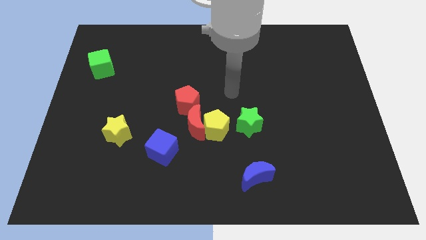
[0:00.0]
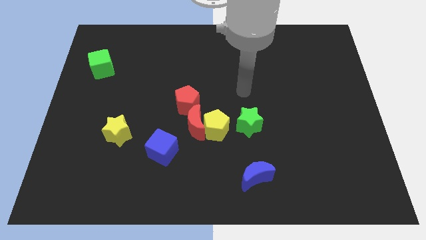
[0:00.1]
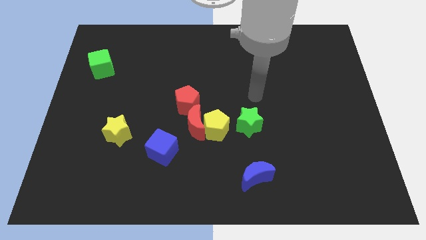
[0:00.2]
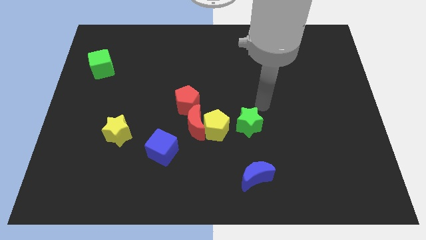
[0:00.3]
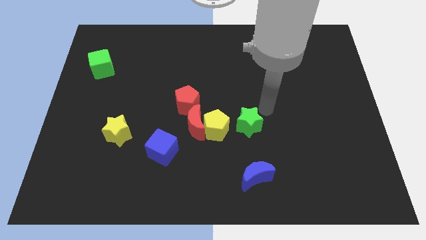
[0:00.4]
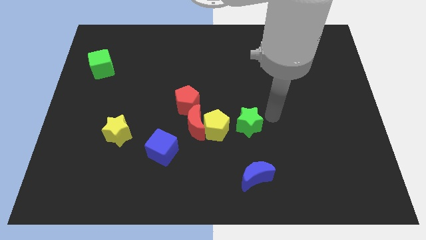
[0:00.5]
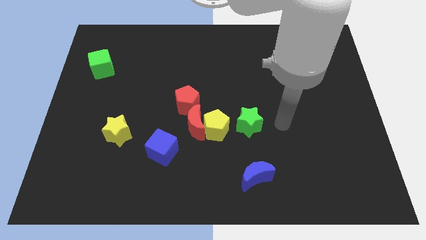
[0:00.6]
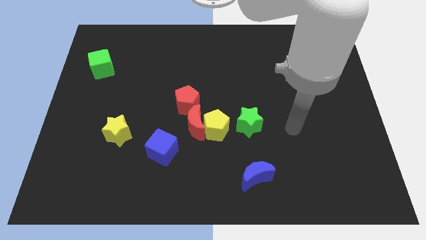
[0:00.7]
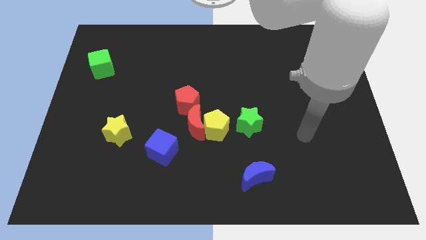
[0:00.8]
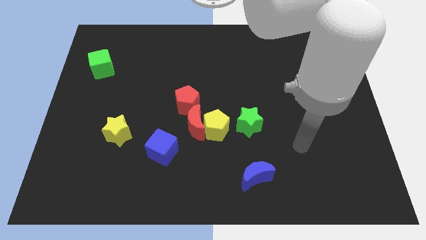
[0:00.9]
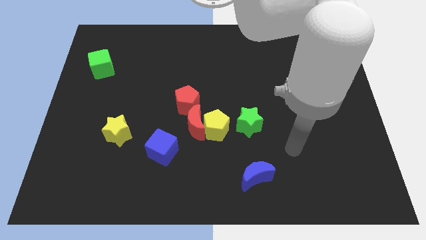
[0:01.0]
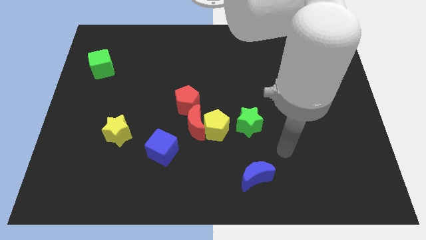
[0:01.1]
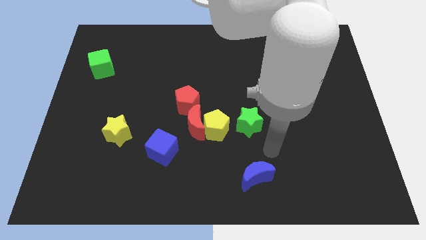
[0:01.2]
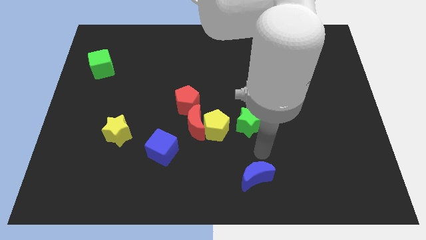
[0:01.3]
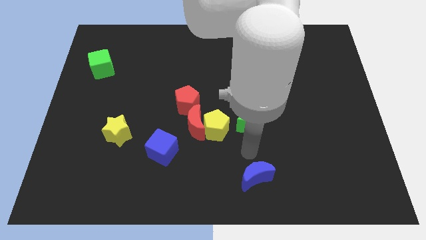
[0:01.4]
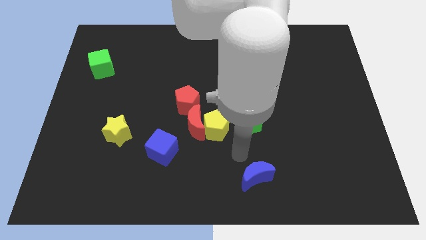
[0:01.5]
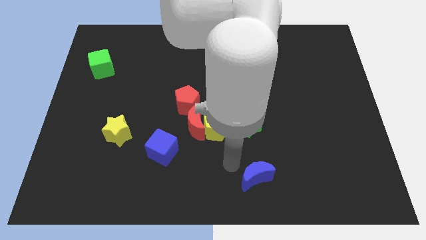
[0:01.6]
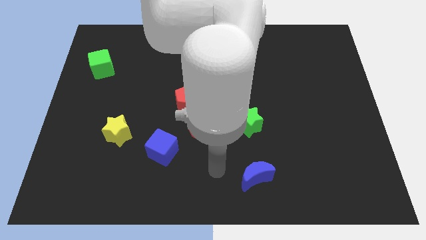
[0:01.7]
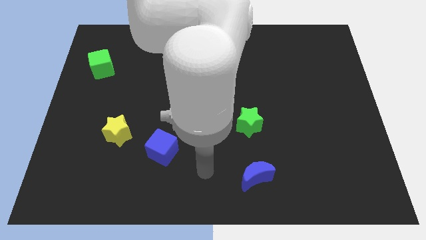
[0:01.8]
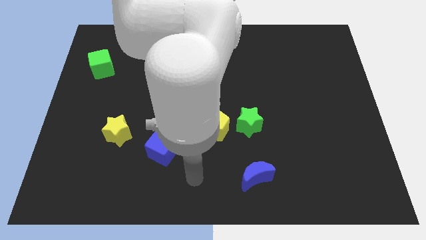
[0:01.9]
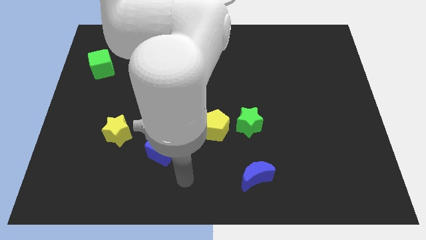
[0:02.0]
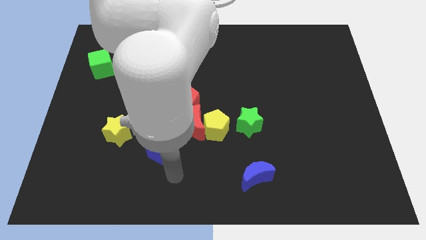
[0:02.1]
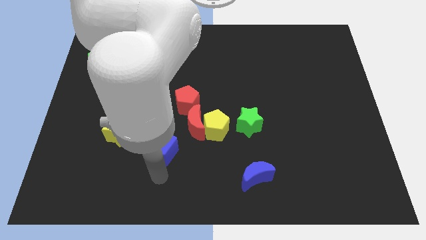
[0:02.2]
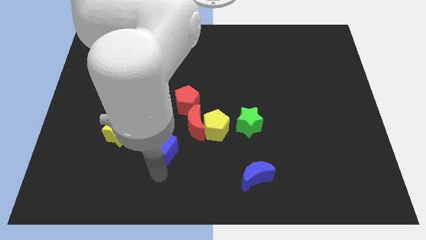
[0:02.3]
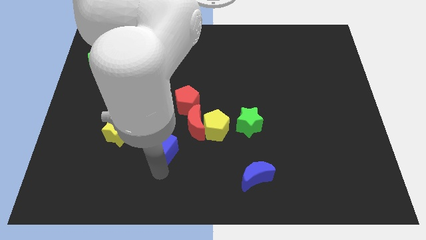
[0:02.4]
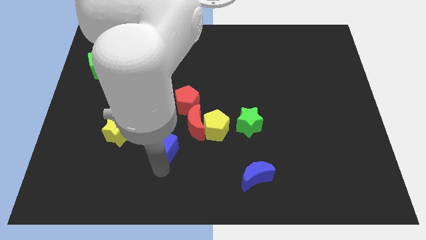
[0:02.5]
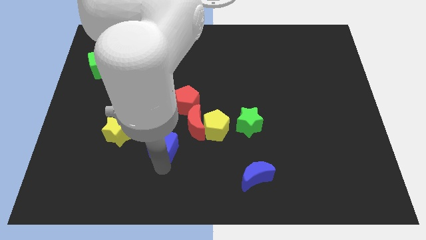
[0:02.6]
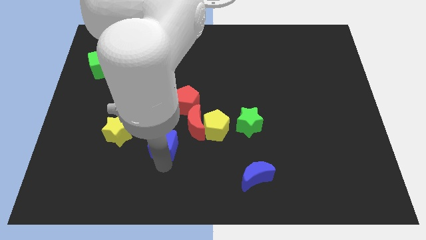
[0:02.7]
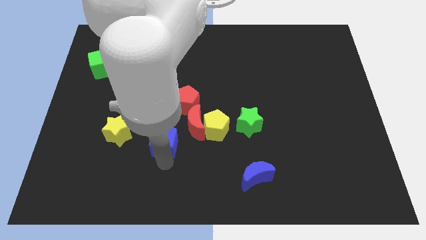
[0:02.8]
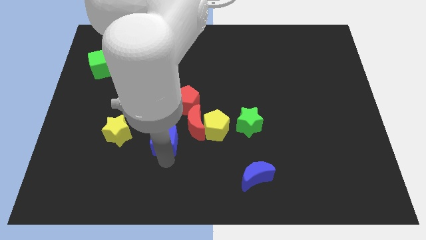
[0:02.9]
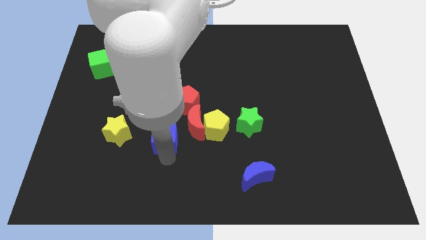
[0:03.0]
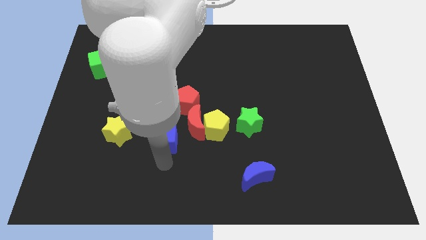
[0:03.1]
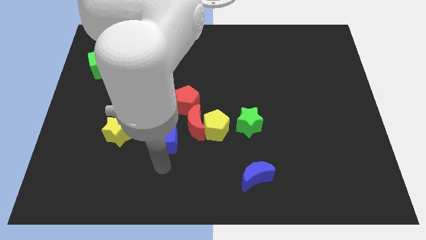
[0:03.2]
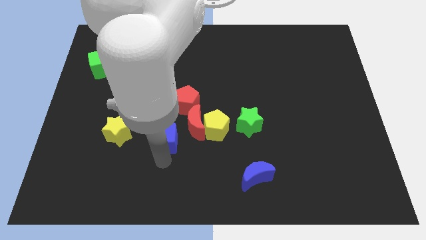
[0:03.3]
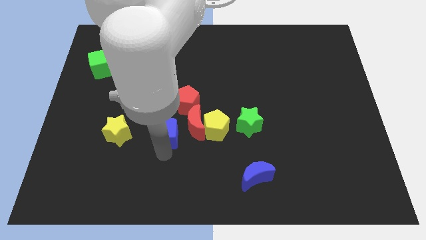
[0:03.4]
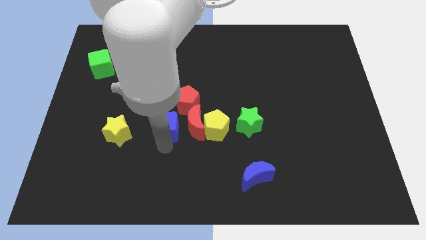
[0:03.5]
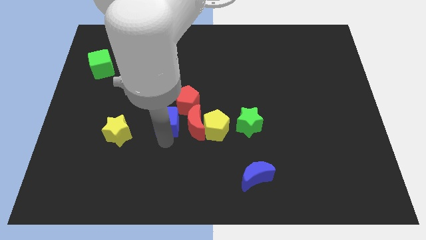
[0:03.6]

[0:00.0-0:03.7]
move the blue cube a little bit upwards

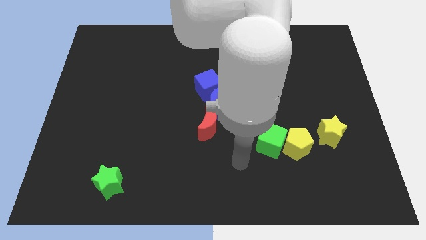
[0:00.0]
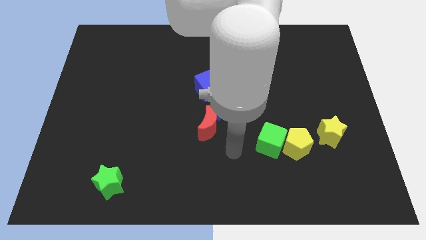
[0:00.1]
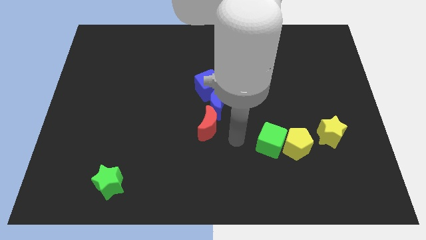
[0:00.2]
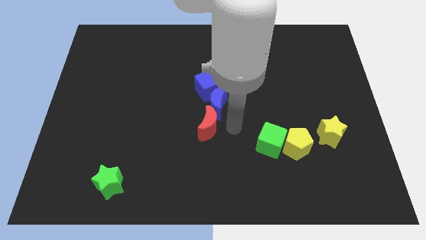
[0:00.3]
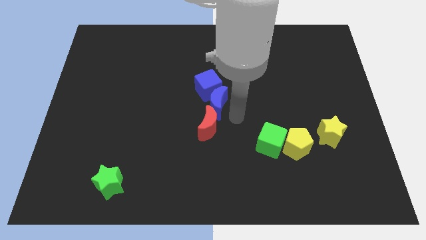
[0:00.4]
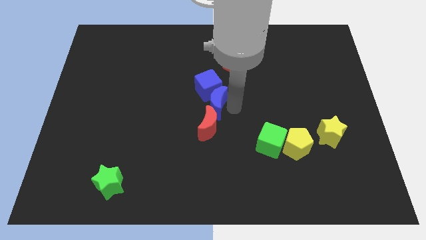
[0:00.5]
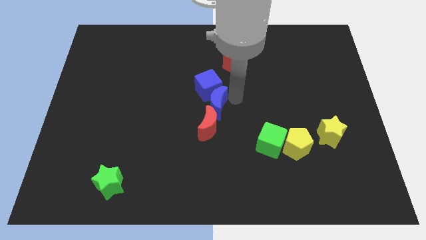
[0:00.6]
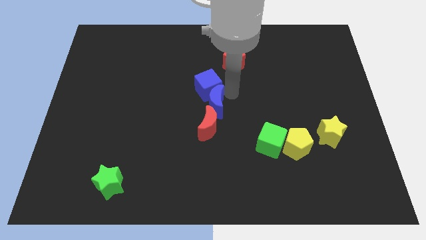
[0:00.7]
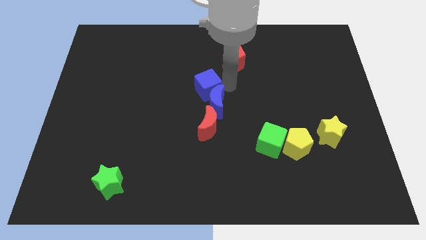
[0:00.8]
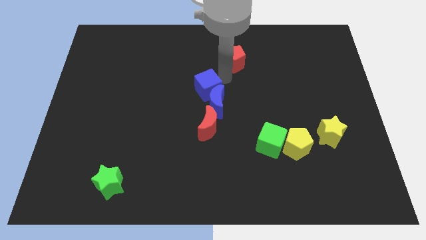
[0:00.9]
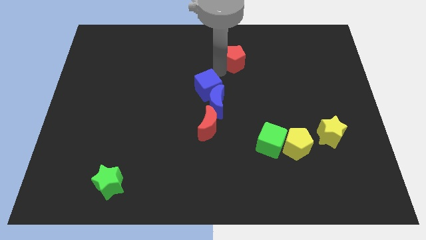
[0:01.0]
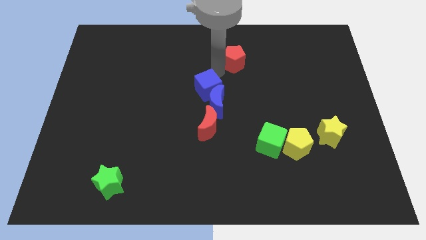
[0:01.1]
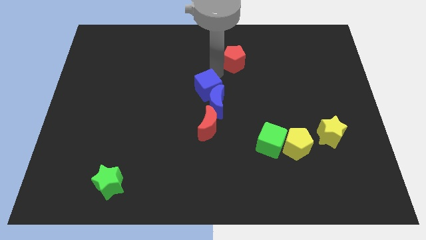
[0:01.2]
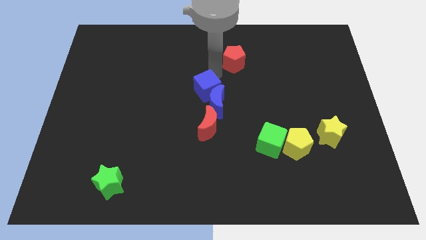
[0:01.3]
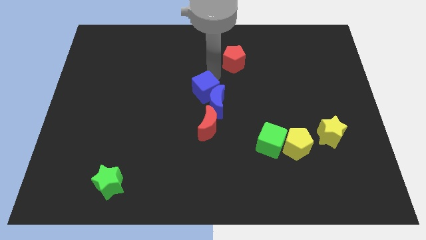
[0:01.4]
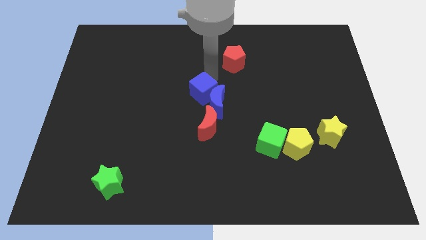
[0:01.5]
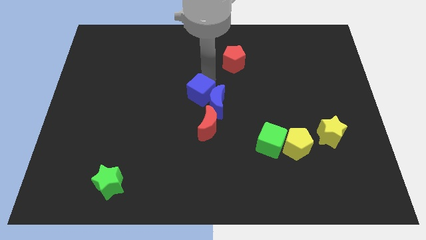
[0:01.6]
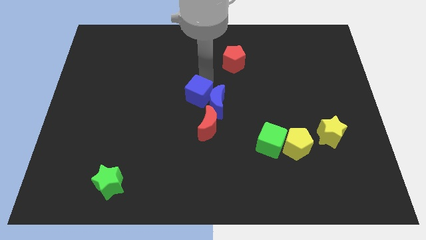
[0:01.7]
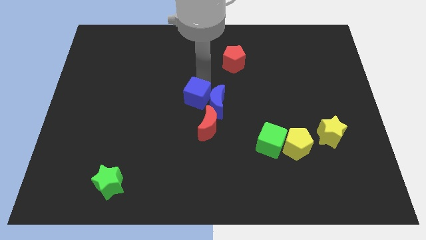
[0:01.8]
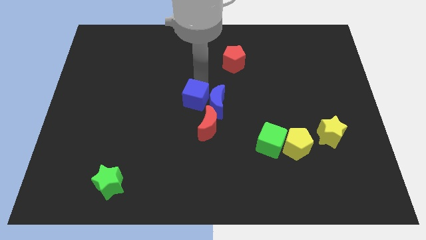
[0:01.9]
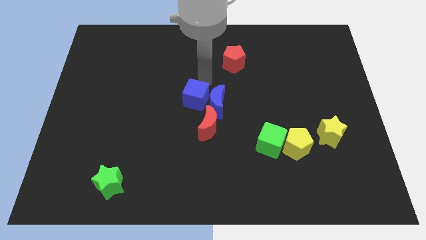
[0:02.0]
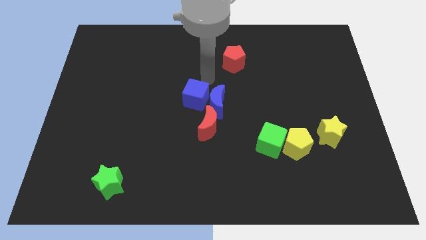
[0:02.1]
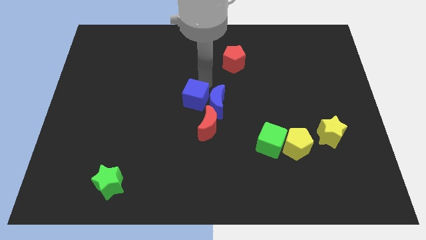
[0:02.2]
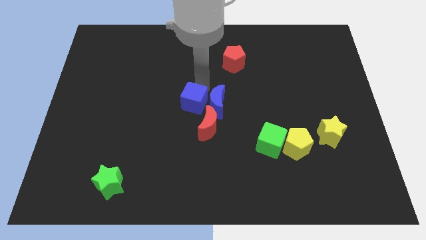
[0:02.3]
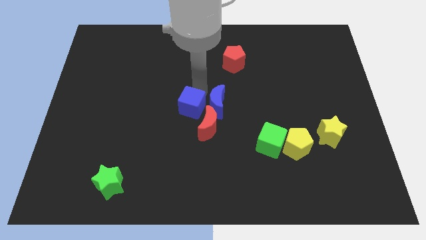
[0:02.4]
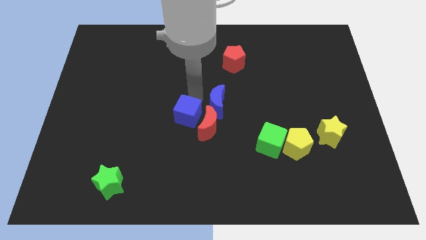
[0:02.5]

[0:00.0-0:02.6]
move the blue cube slightly downwards

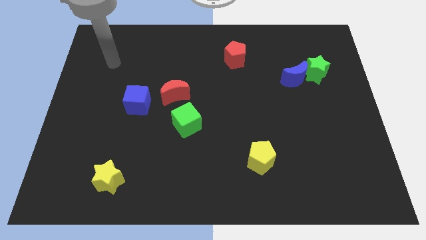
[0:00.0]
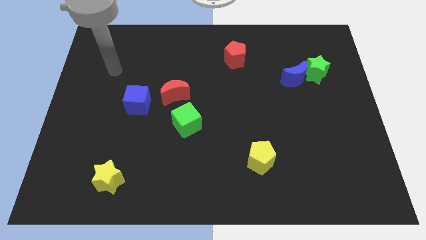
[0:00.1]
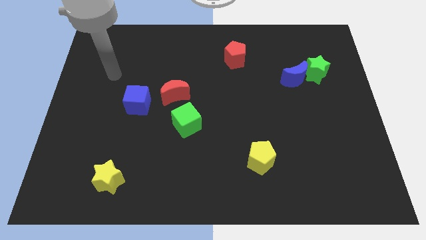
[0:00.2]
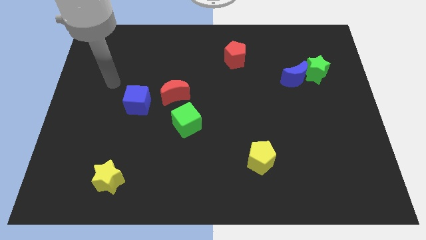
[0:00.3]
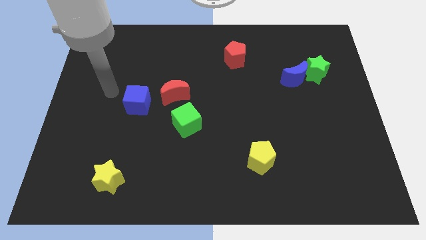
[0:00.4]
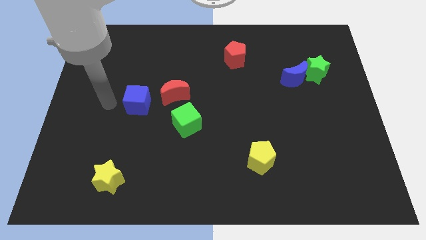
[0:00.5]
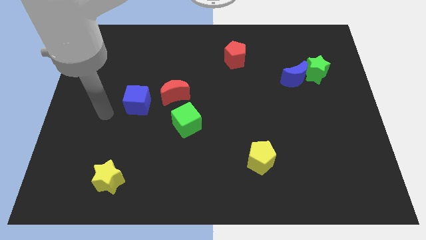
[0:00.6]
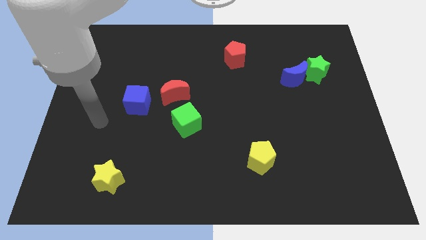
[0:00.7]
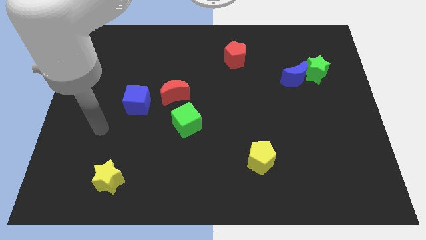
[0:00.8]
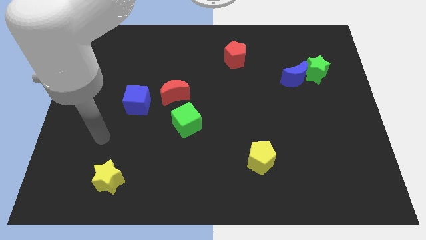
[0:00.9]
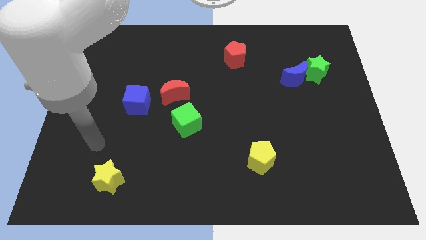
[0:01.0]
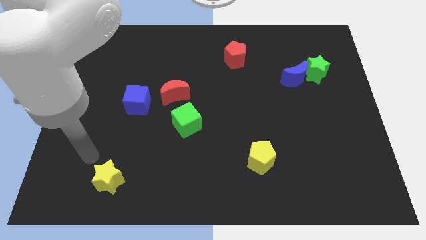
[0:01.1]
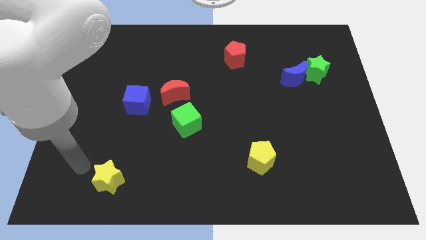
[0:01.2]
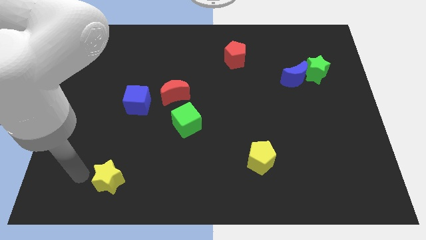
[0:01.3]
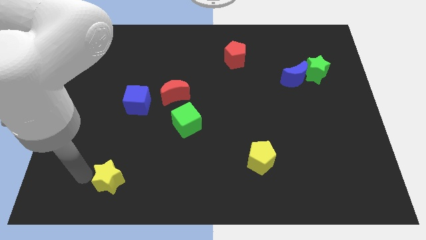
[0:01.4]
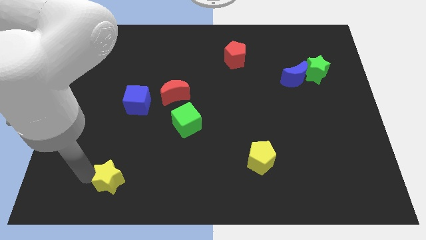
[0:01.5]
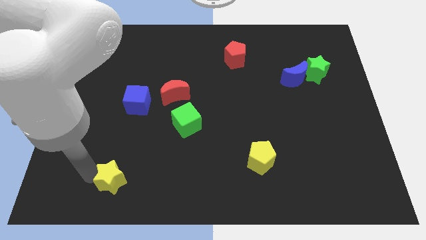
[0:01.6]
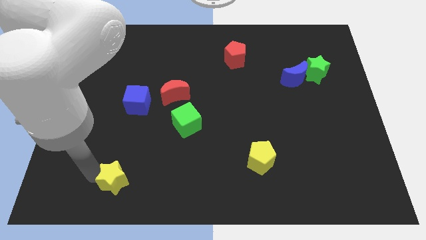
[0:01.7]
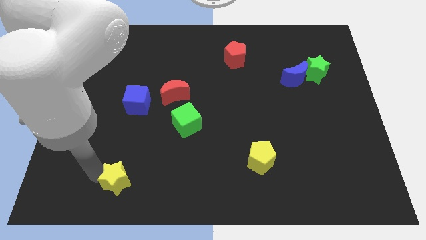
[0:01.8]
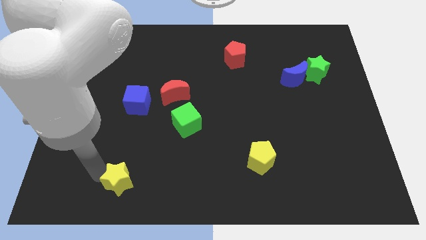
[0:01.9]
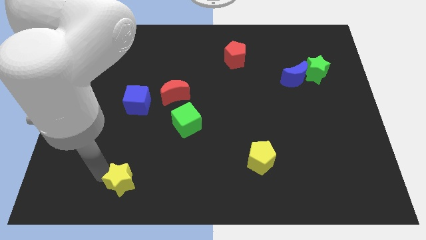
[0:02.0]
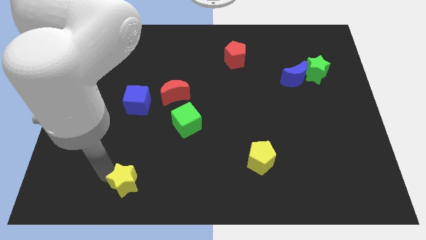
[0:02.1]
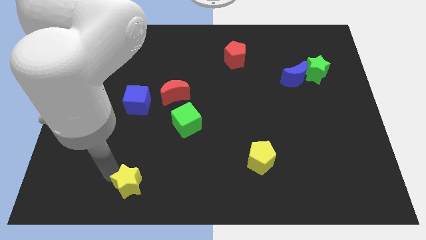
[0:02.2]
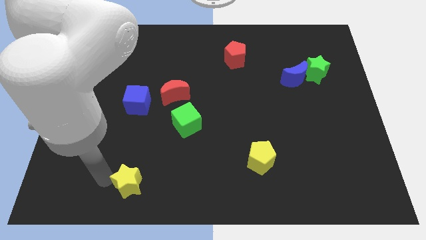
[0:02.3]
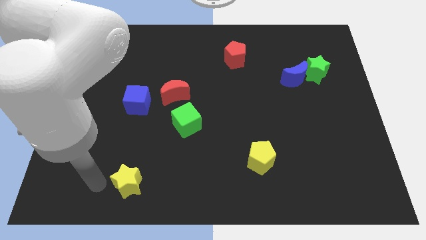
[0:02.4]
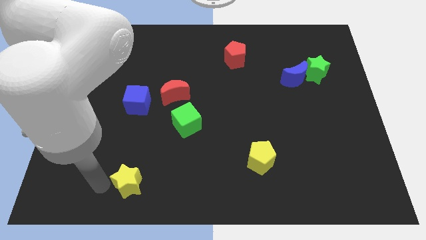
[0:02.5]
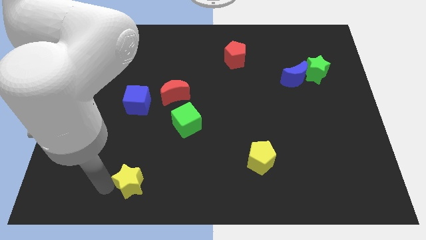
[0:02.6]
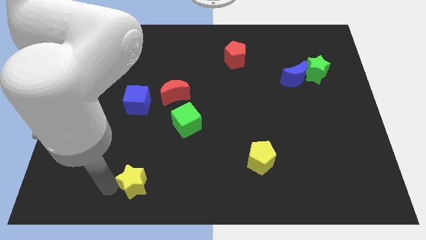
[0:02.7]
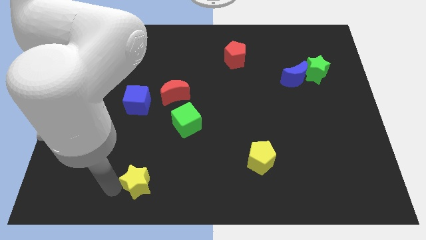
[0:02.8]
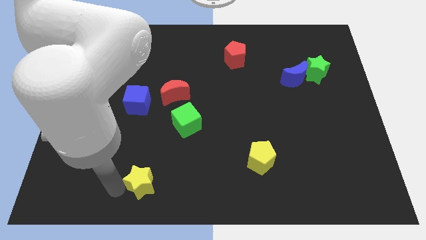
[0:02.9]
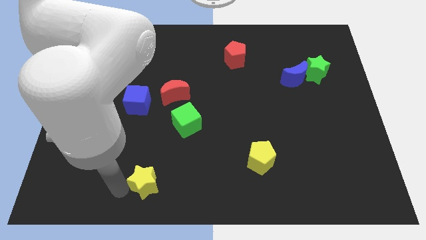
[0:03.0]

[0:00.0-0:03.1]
push the yellow star to the right slightly
